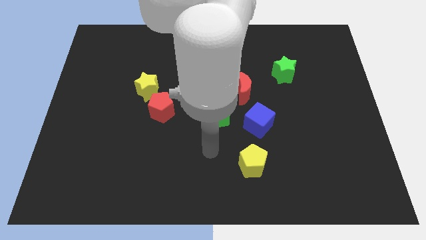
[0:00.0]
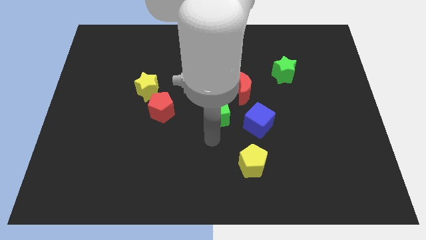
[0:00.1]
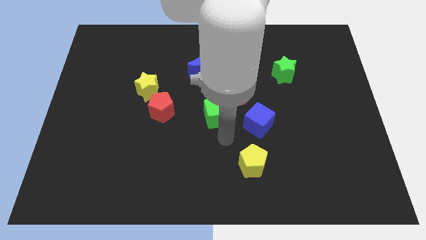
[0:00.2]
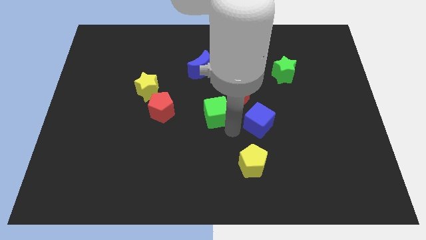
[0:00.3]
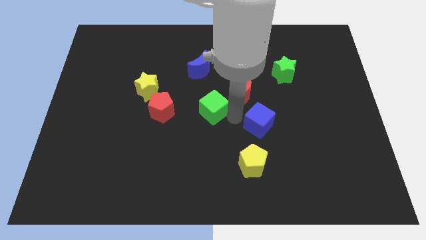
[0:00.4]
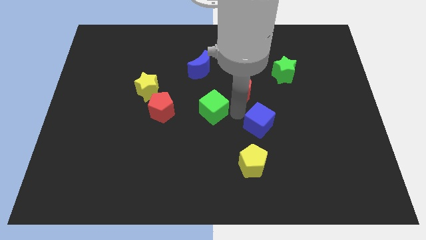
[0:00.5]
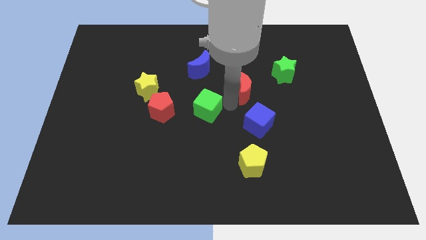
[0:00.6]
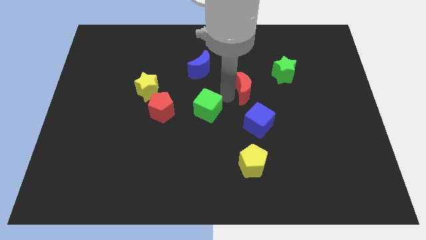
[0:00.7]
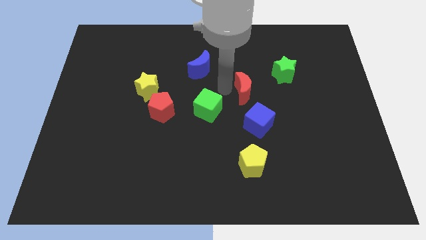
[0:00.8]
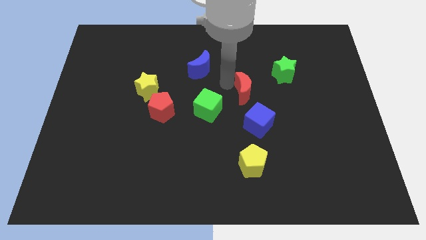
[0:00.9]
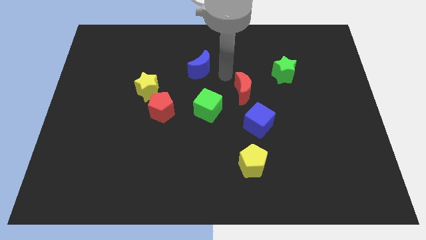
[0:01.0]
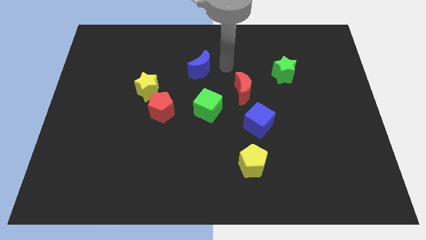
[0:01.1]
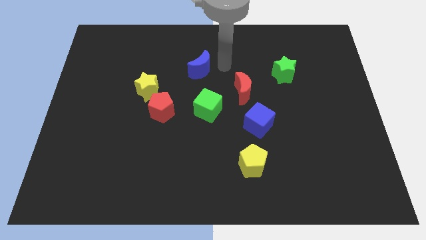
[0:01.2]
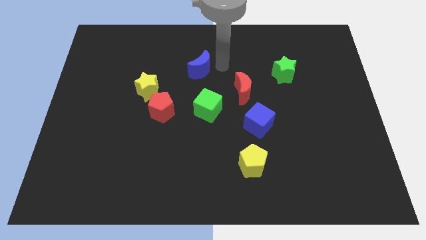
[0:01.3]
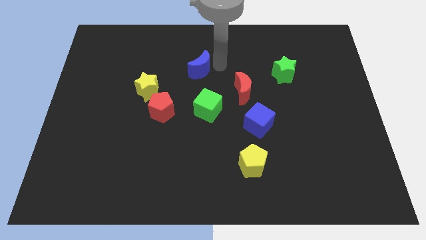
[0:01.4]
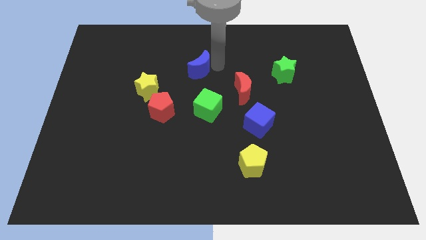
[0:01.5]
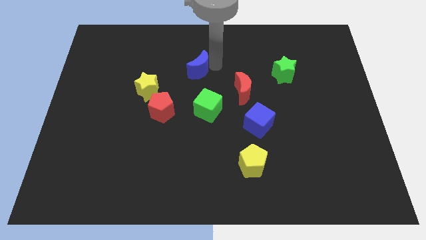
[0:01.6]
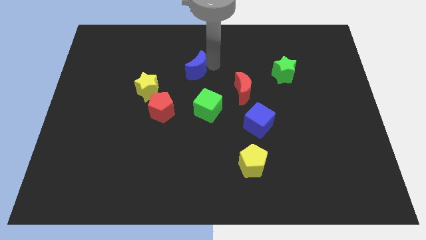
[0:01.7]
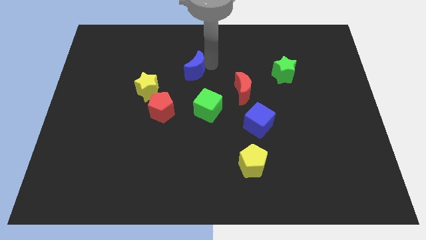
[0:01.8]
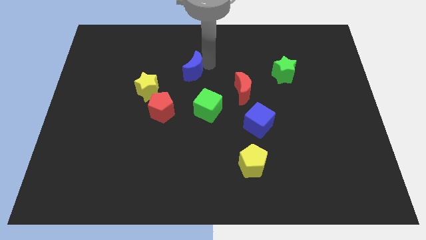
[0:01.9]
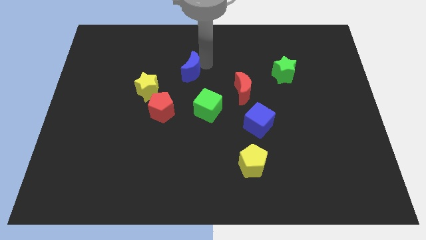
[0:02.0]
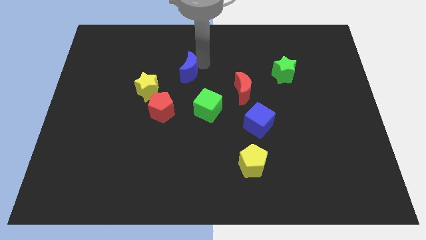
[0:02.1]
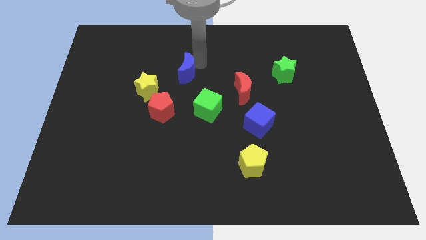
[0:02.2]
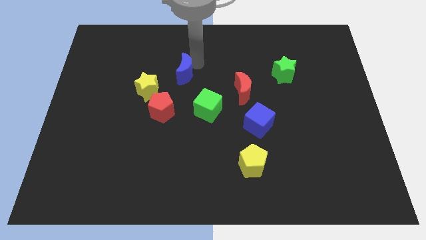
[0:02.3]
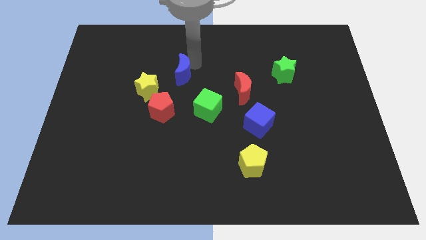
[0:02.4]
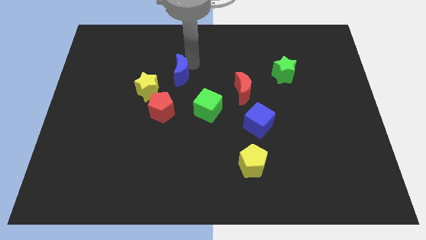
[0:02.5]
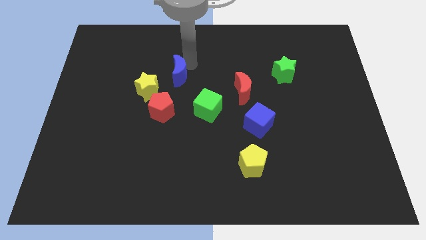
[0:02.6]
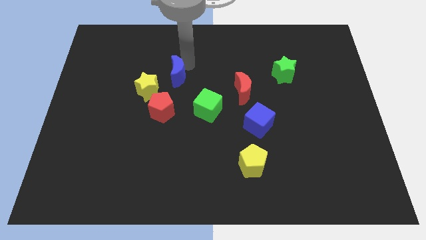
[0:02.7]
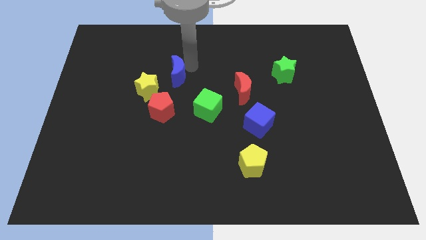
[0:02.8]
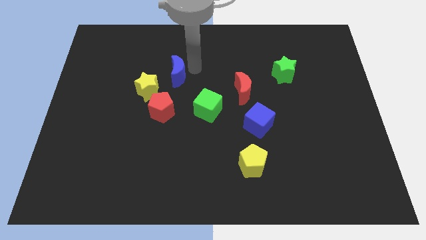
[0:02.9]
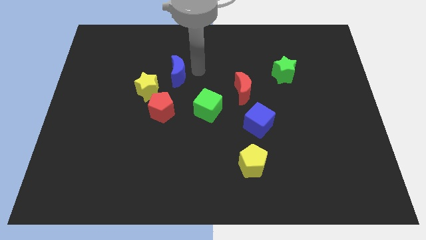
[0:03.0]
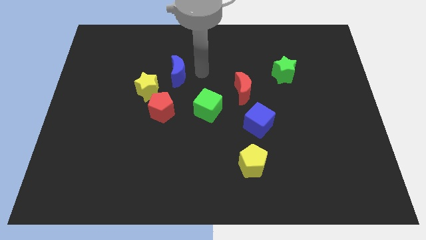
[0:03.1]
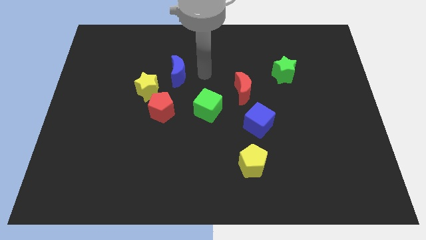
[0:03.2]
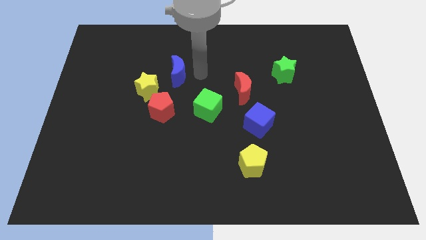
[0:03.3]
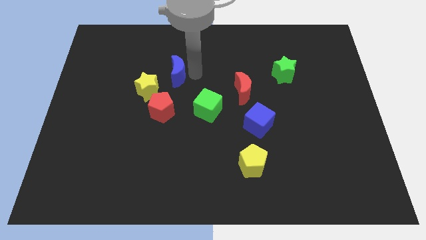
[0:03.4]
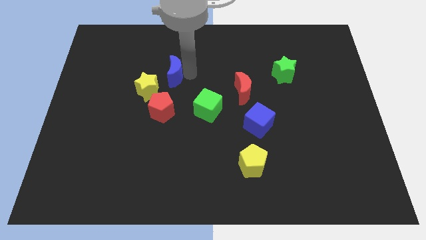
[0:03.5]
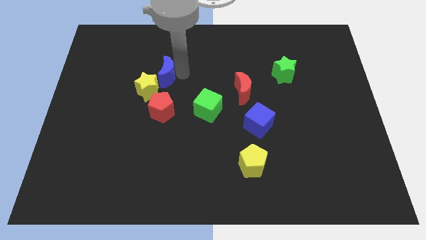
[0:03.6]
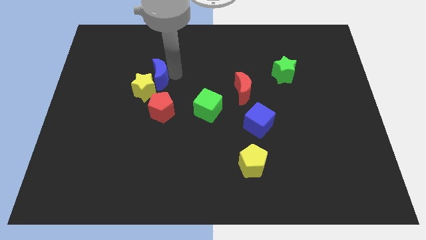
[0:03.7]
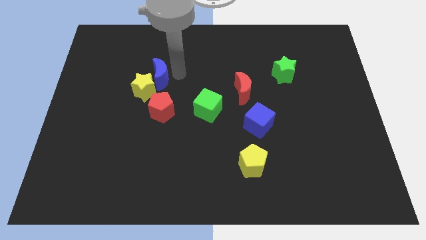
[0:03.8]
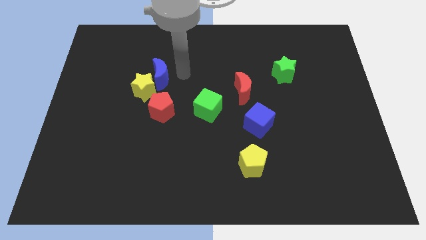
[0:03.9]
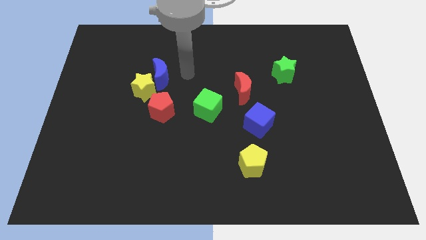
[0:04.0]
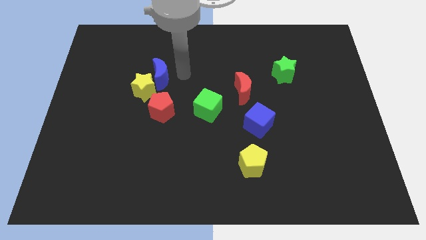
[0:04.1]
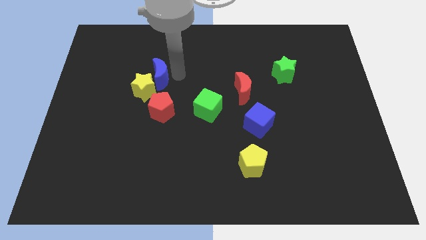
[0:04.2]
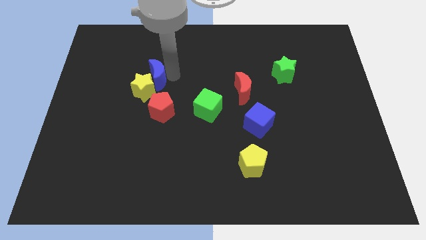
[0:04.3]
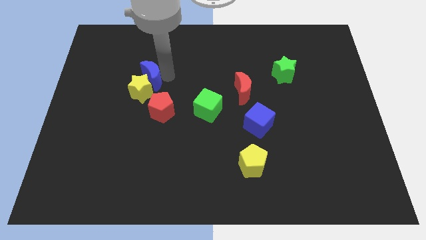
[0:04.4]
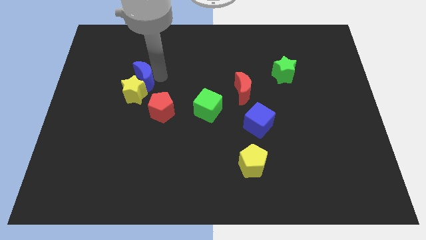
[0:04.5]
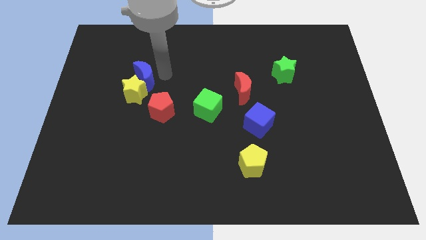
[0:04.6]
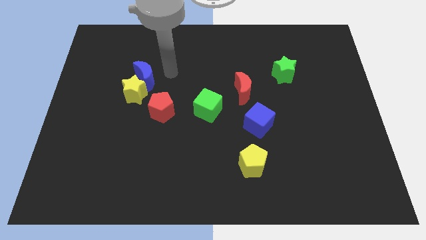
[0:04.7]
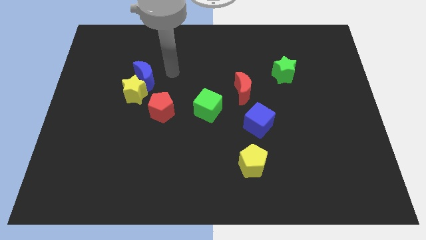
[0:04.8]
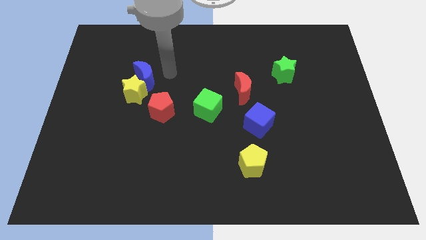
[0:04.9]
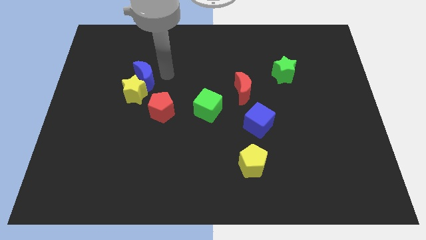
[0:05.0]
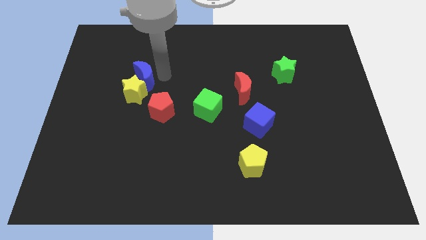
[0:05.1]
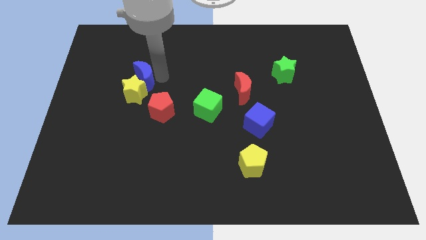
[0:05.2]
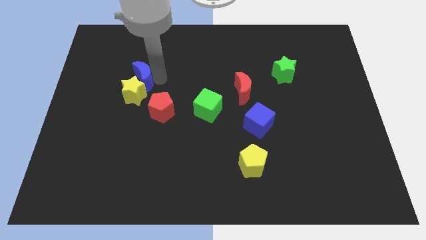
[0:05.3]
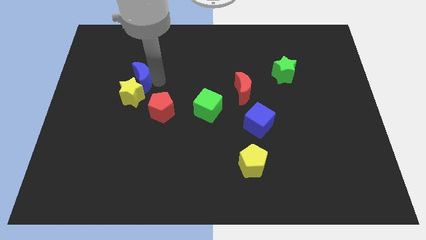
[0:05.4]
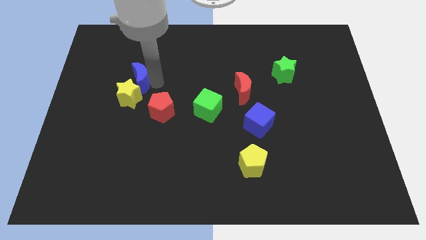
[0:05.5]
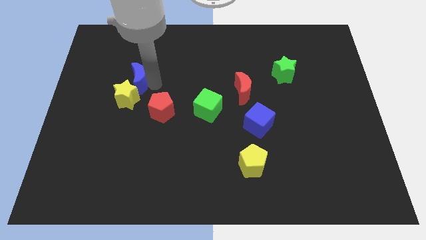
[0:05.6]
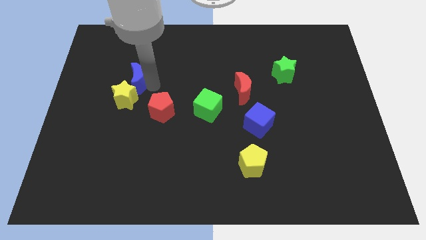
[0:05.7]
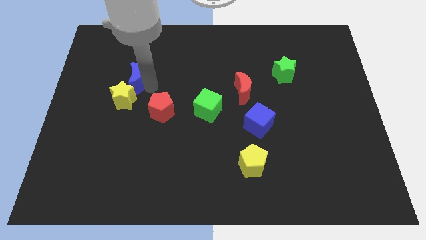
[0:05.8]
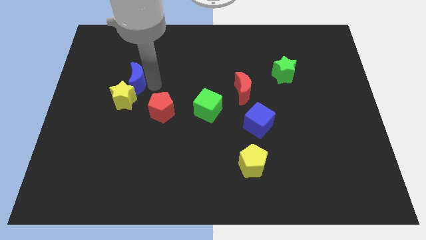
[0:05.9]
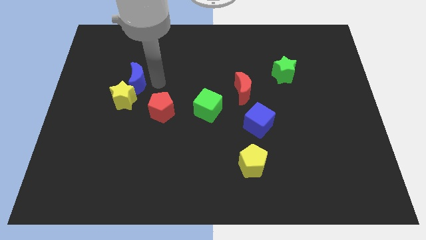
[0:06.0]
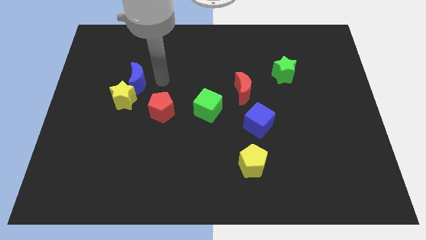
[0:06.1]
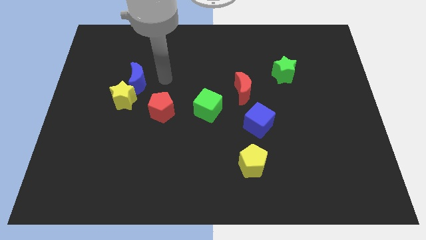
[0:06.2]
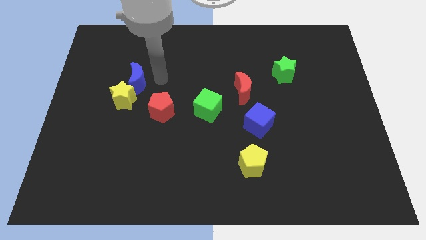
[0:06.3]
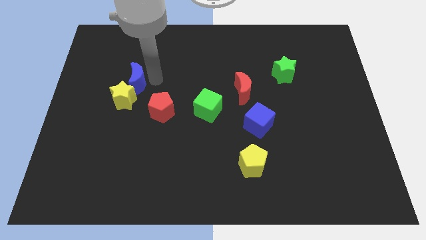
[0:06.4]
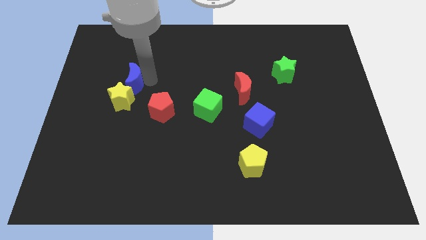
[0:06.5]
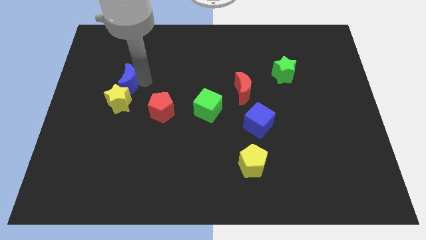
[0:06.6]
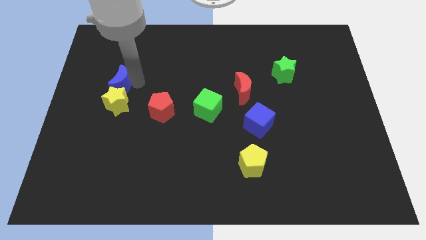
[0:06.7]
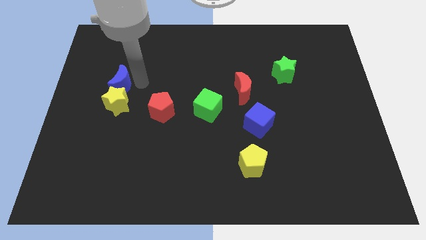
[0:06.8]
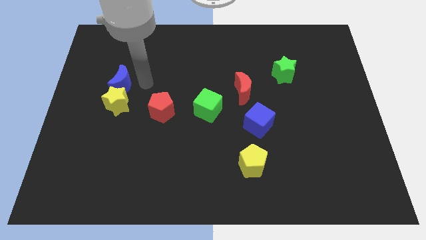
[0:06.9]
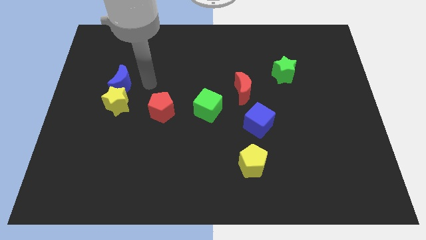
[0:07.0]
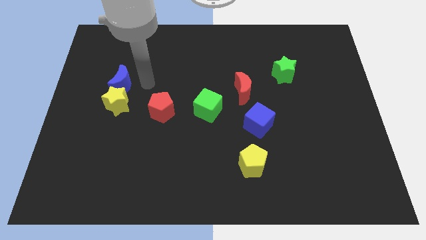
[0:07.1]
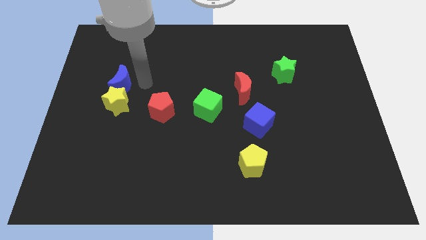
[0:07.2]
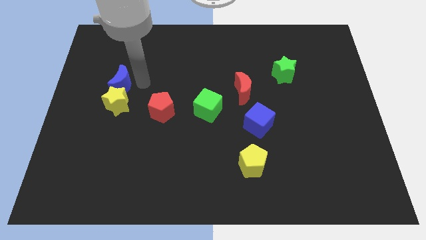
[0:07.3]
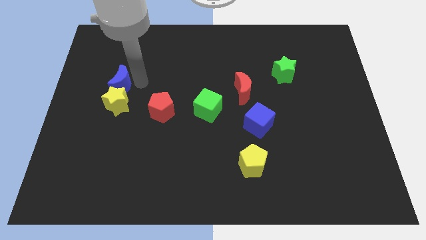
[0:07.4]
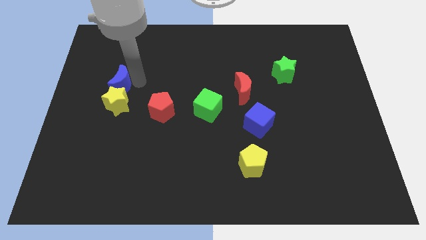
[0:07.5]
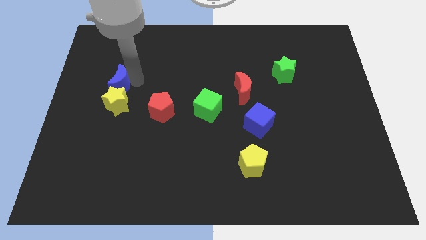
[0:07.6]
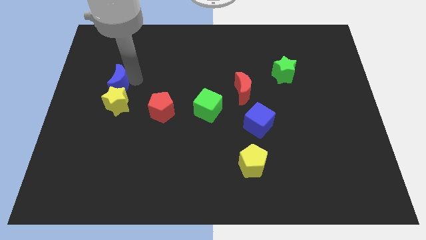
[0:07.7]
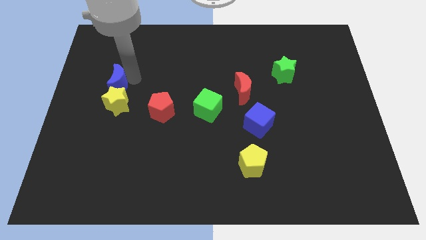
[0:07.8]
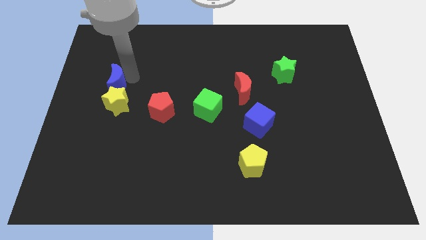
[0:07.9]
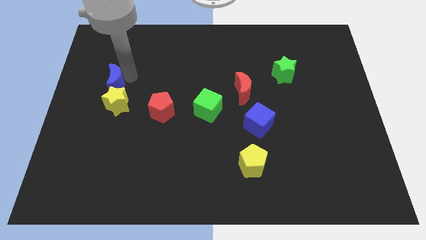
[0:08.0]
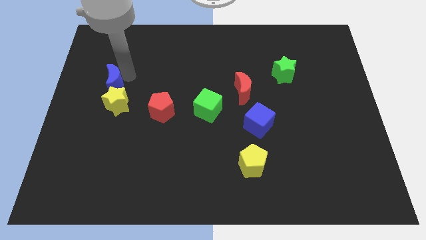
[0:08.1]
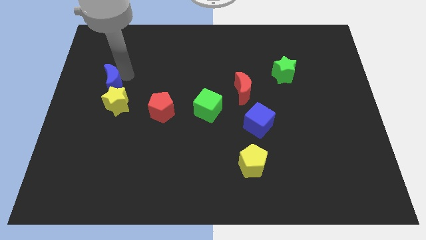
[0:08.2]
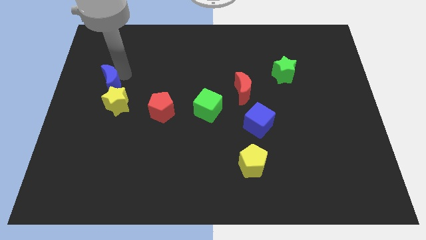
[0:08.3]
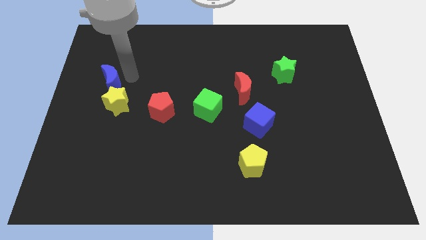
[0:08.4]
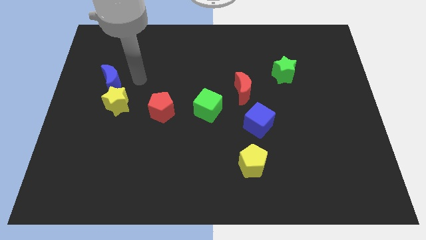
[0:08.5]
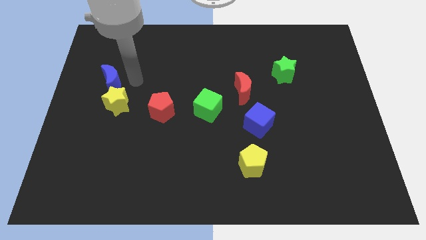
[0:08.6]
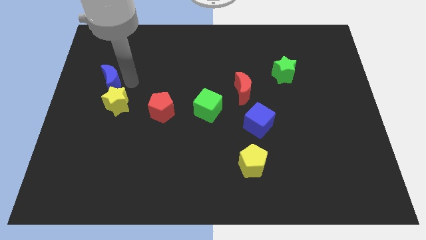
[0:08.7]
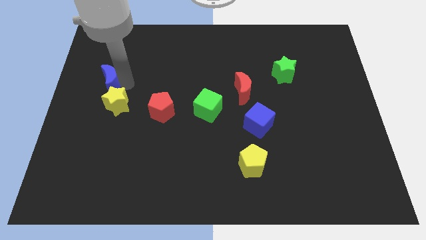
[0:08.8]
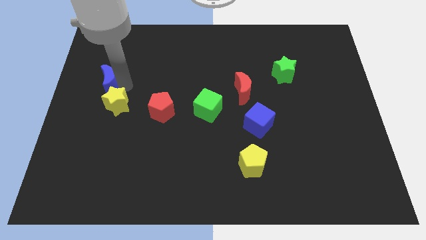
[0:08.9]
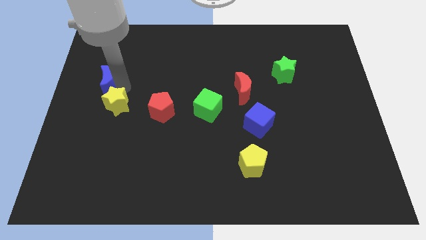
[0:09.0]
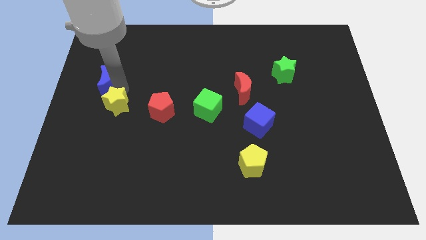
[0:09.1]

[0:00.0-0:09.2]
push the blue moon to the left side of the board
